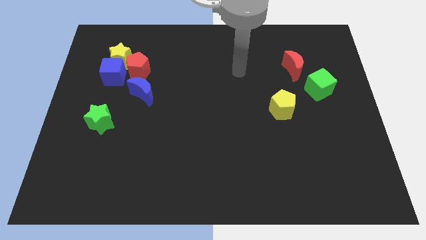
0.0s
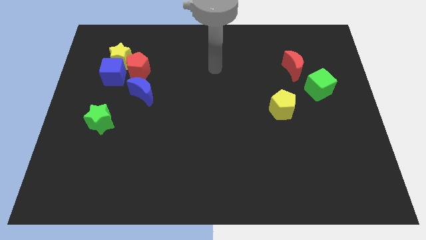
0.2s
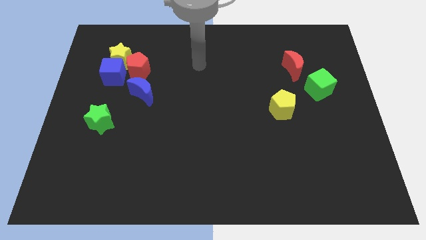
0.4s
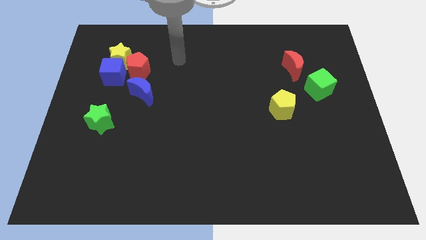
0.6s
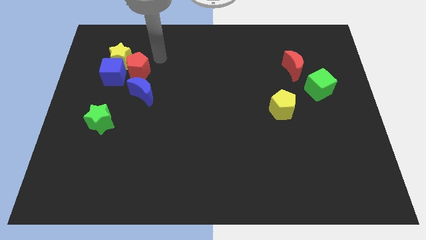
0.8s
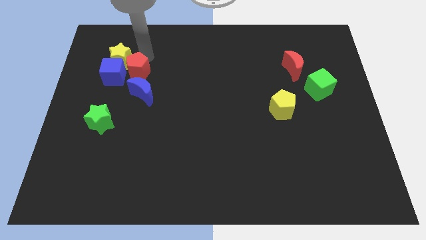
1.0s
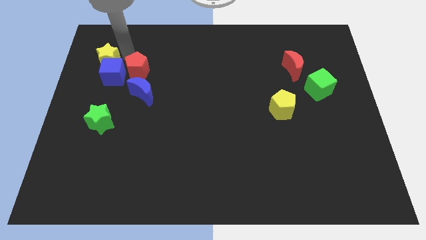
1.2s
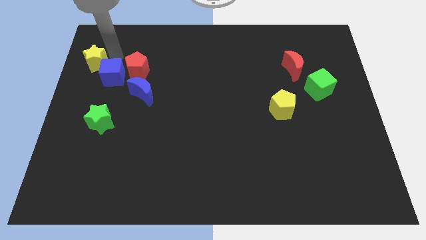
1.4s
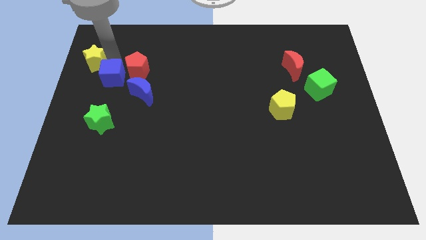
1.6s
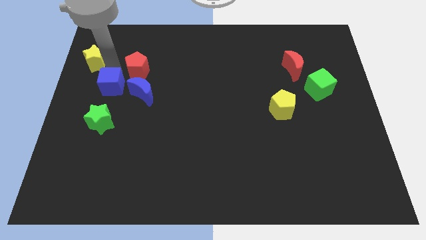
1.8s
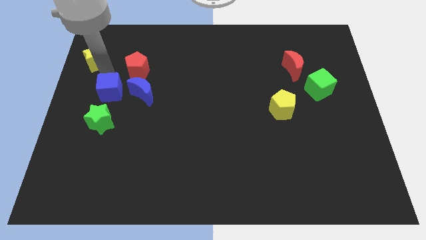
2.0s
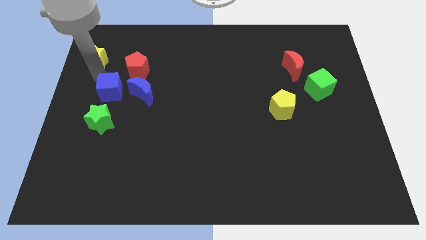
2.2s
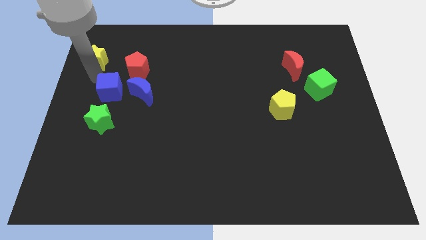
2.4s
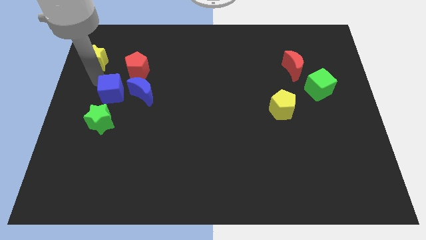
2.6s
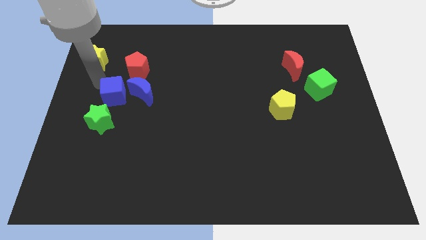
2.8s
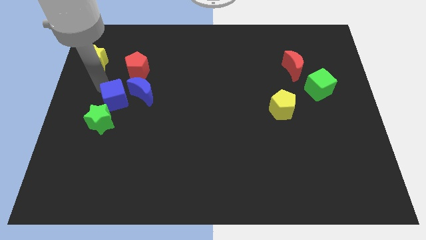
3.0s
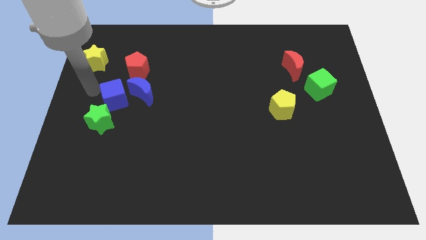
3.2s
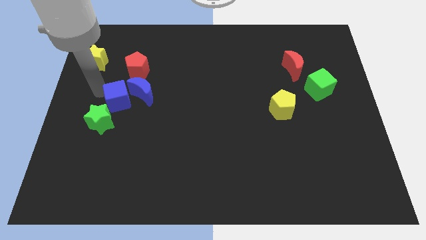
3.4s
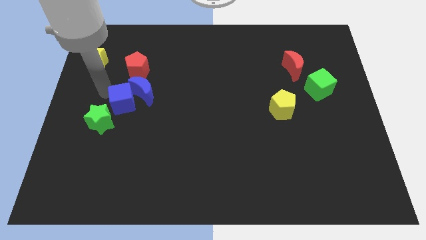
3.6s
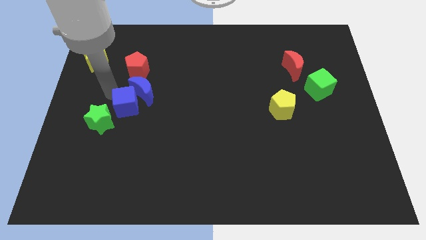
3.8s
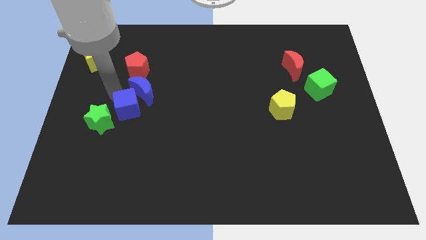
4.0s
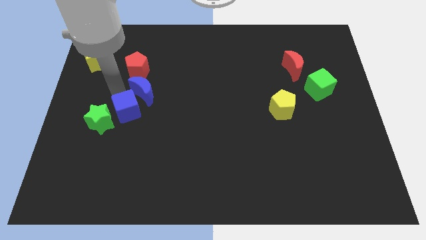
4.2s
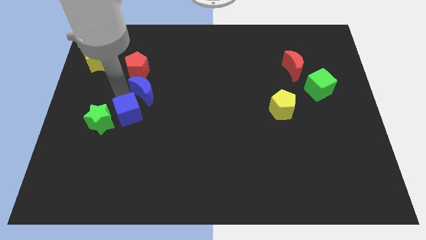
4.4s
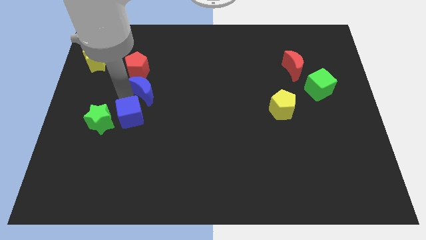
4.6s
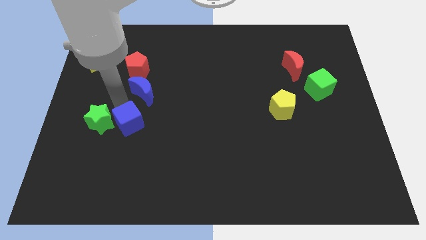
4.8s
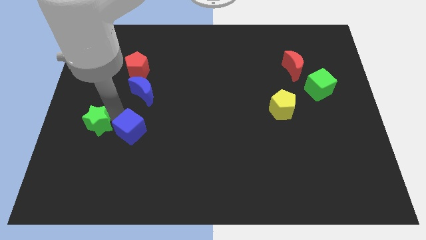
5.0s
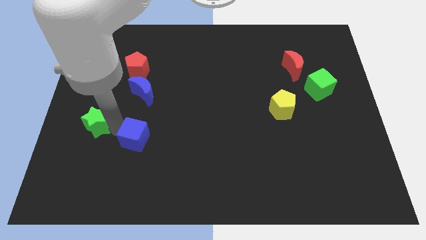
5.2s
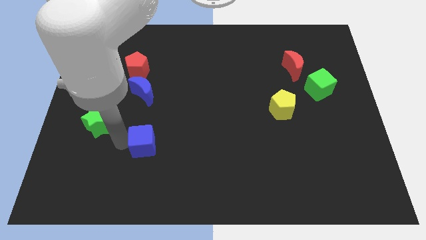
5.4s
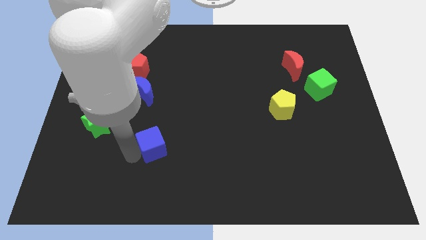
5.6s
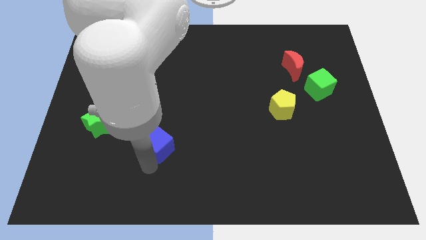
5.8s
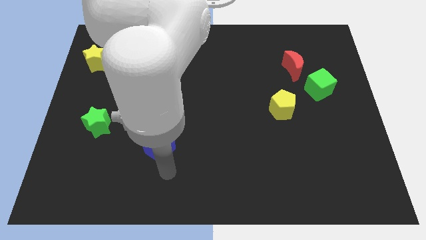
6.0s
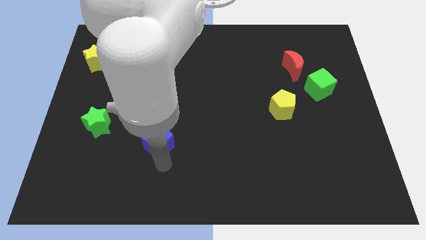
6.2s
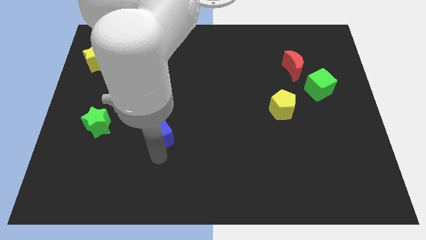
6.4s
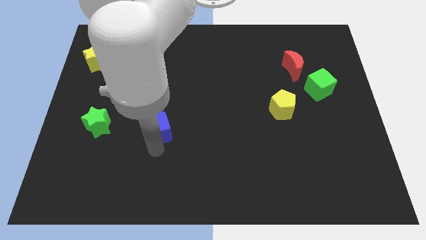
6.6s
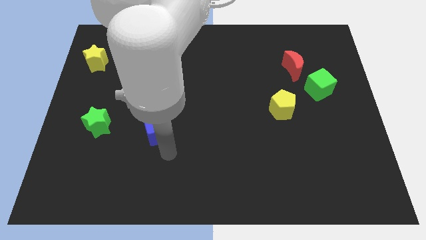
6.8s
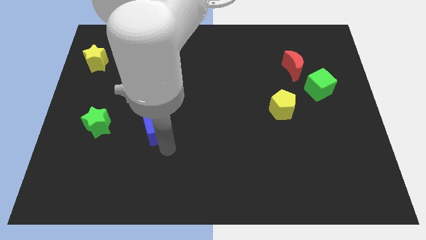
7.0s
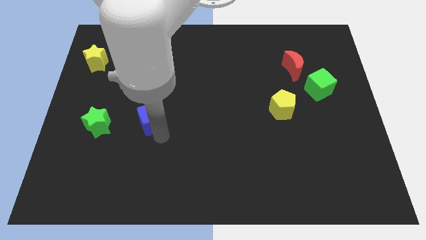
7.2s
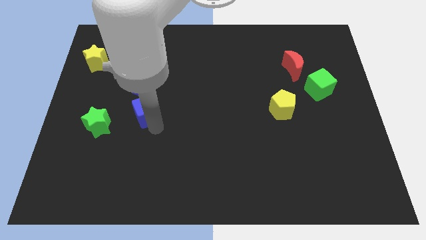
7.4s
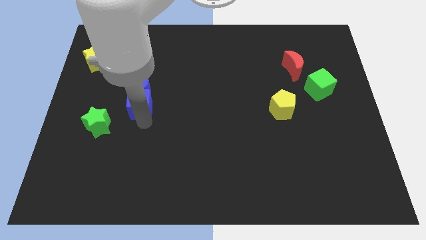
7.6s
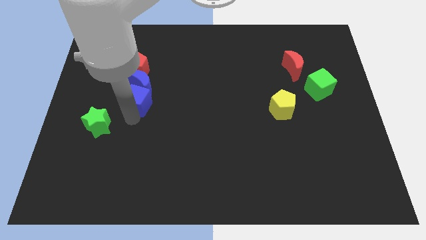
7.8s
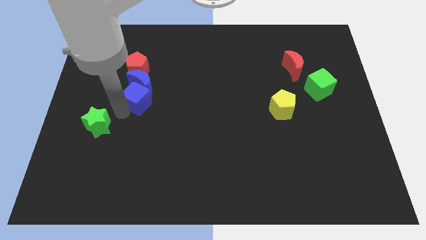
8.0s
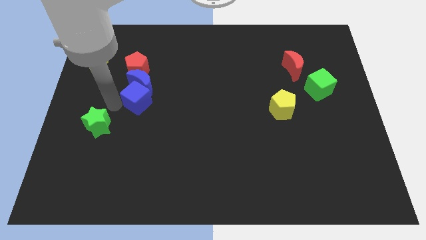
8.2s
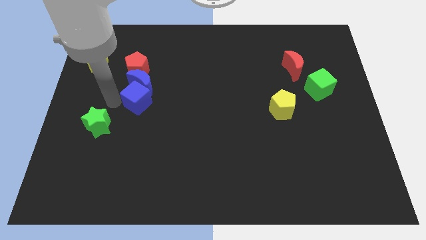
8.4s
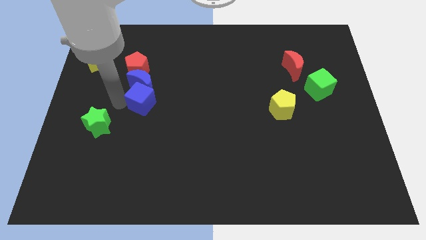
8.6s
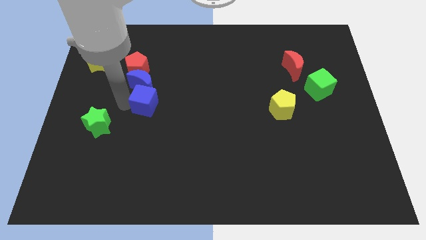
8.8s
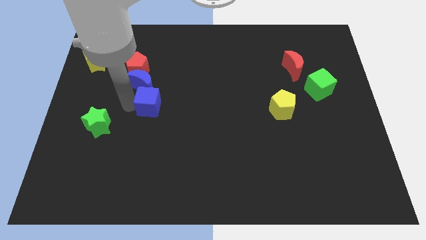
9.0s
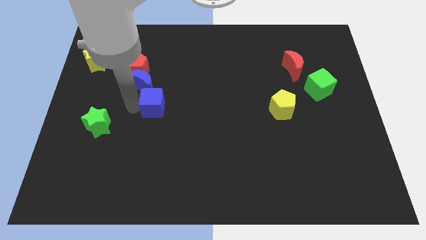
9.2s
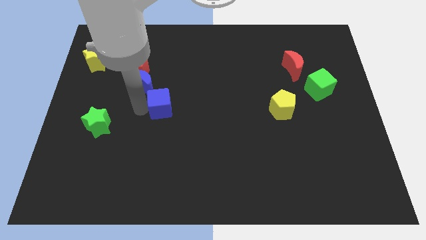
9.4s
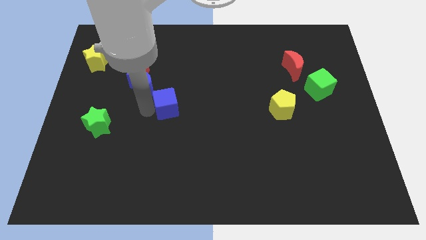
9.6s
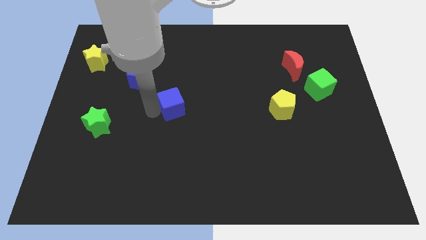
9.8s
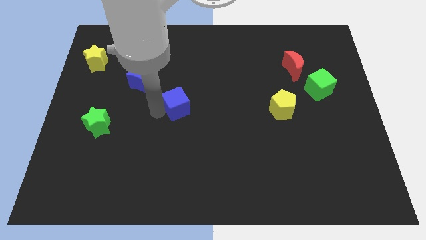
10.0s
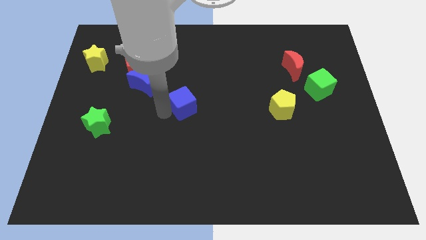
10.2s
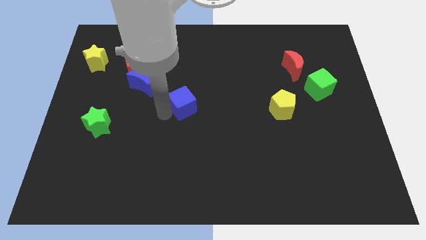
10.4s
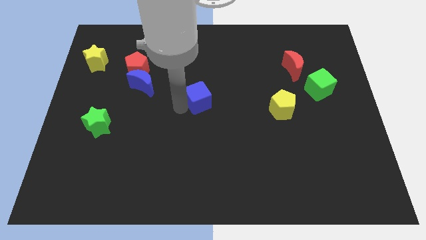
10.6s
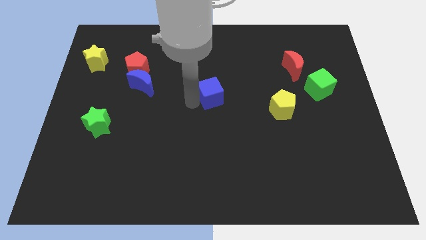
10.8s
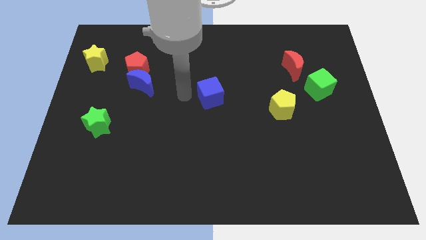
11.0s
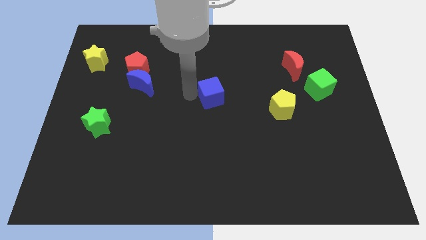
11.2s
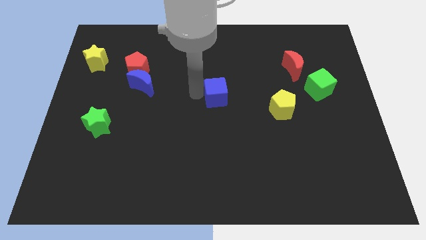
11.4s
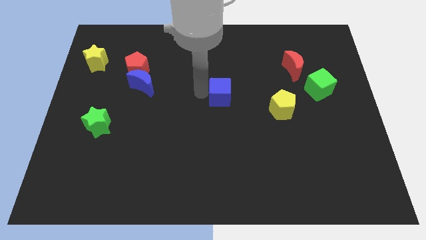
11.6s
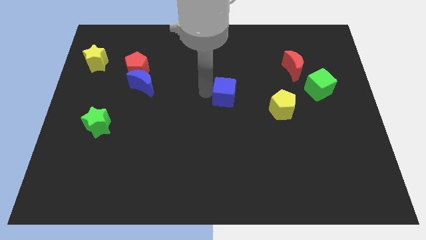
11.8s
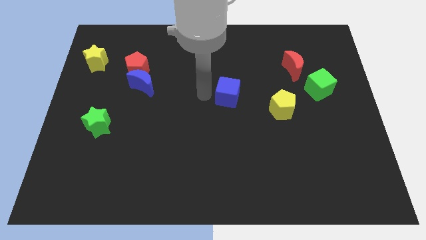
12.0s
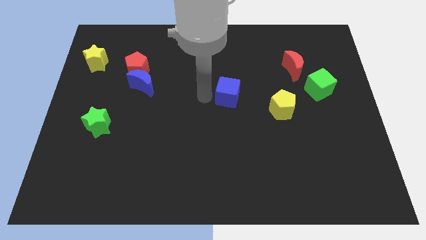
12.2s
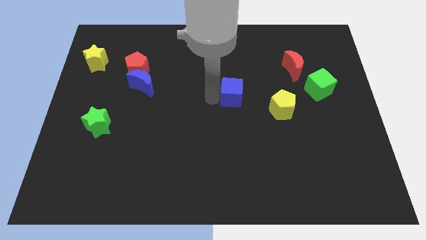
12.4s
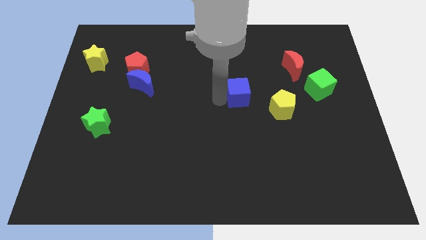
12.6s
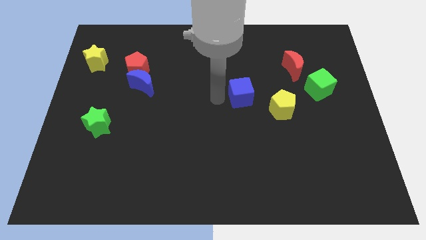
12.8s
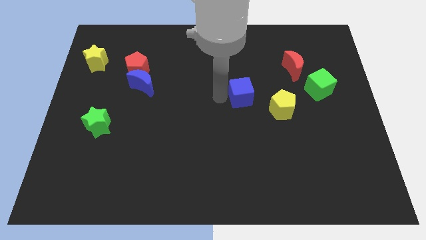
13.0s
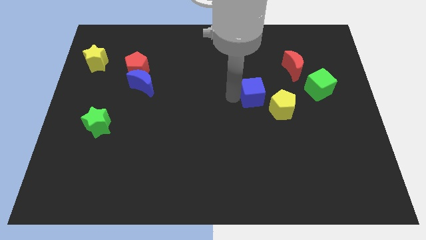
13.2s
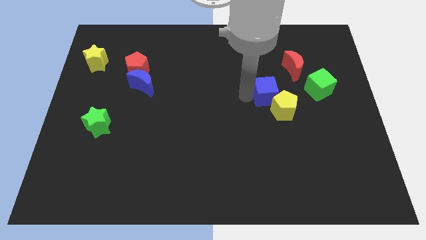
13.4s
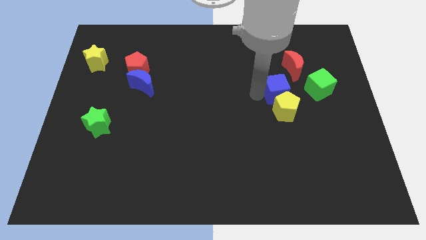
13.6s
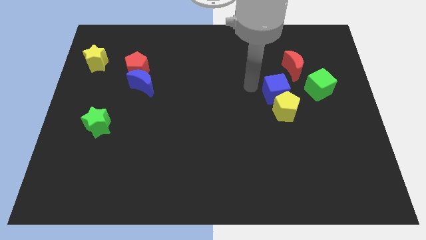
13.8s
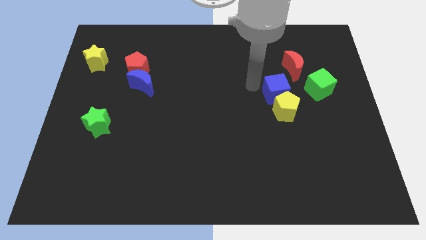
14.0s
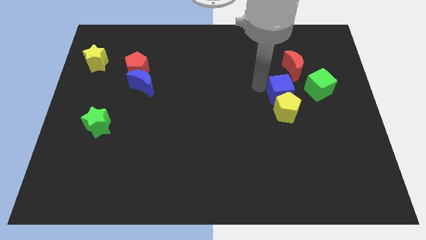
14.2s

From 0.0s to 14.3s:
slide the blue cube below the red moon
